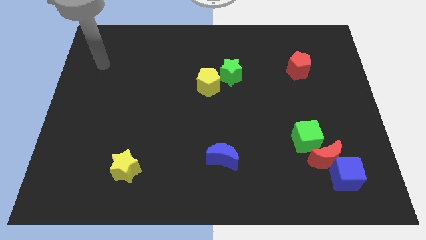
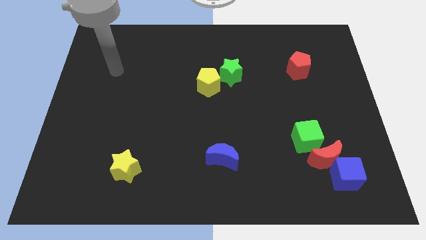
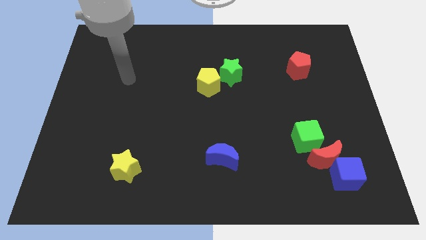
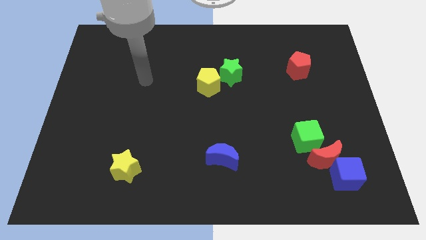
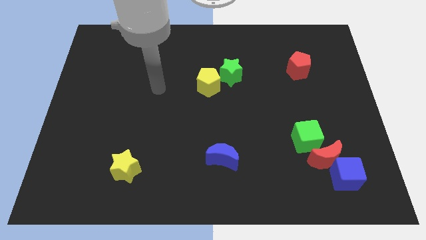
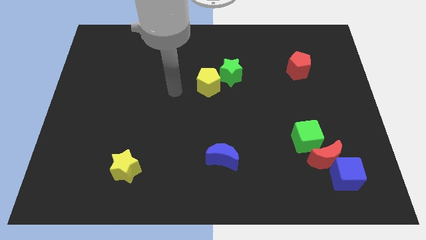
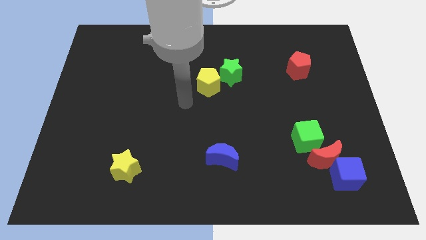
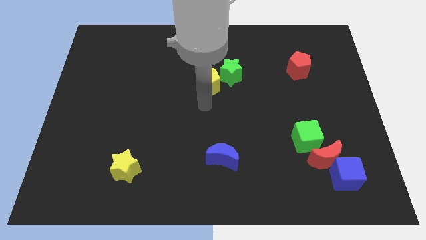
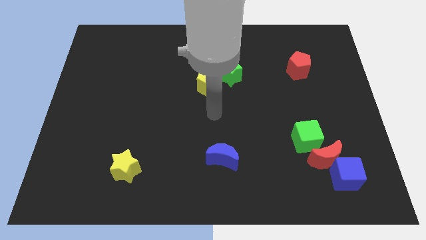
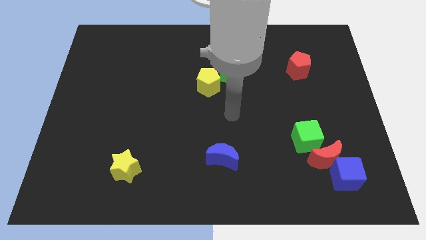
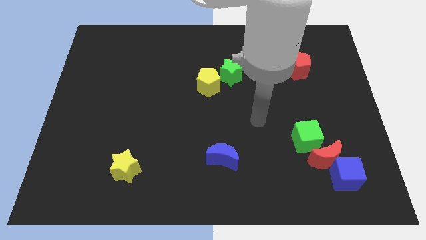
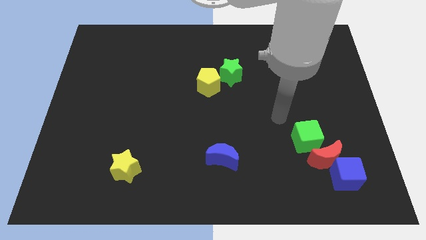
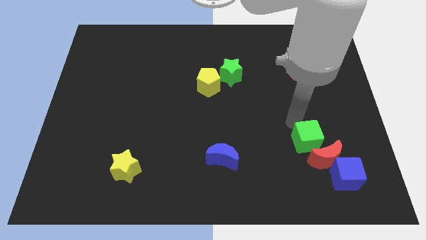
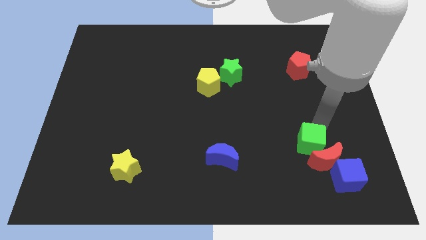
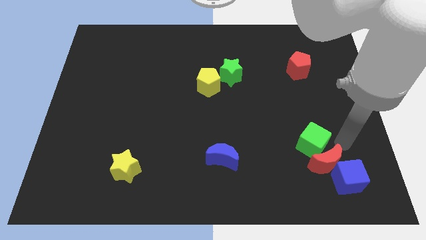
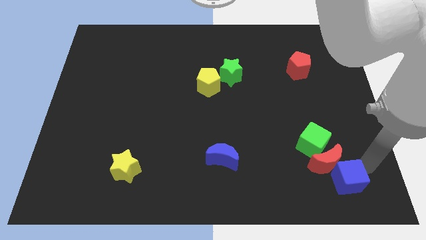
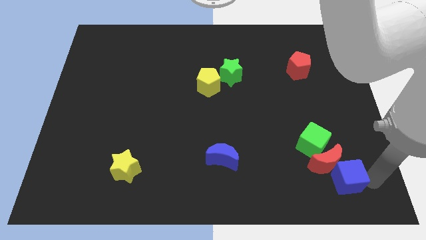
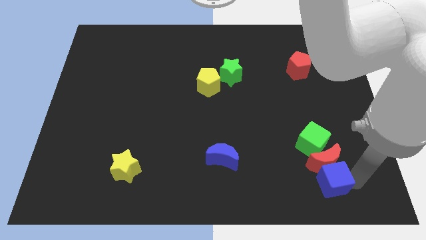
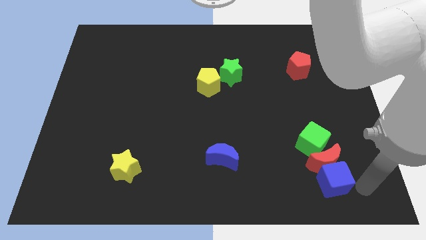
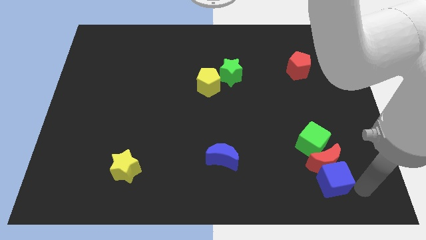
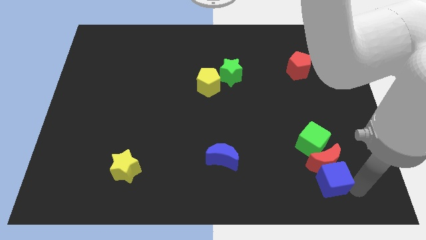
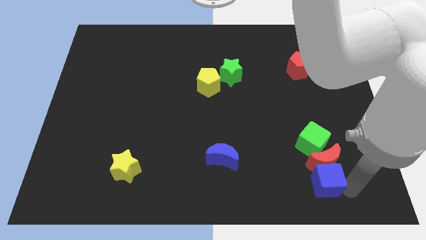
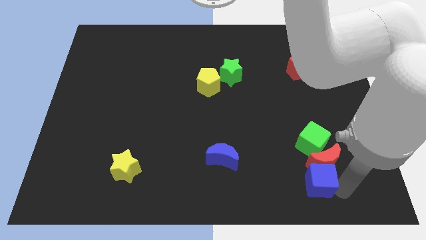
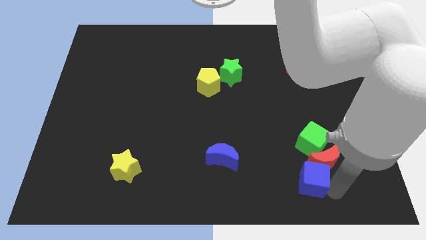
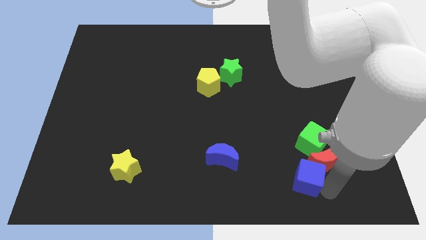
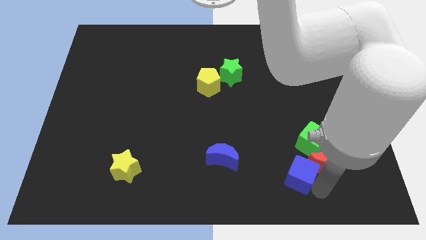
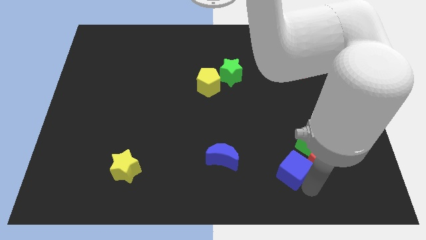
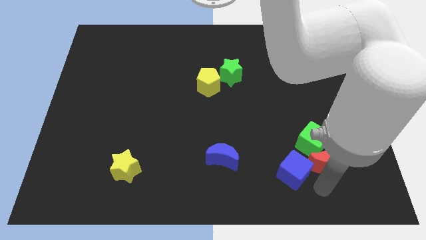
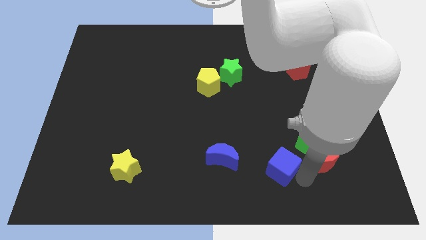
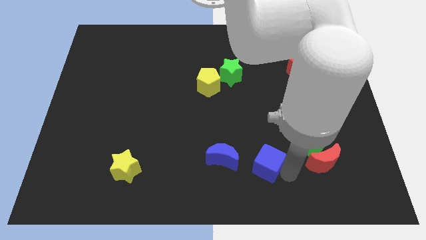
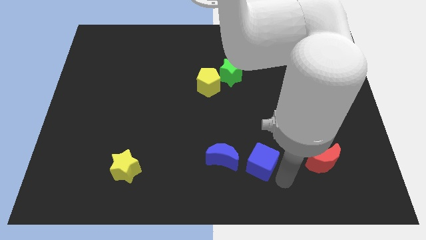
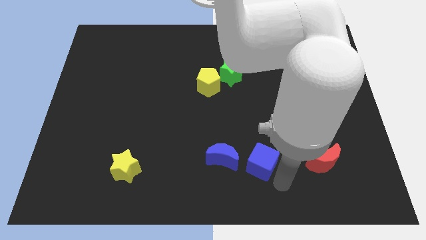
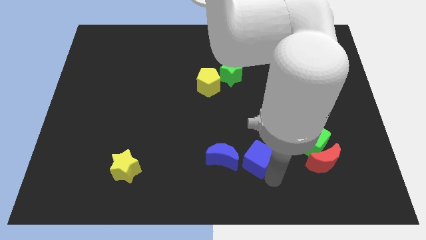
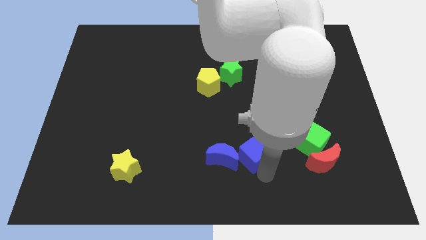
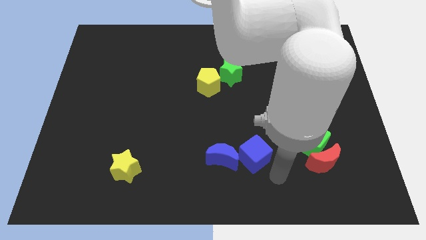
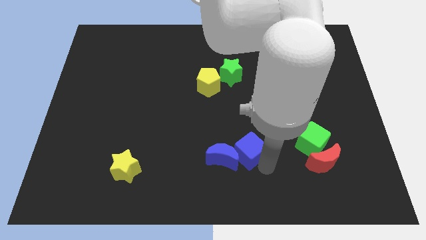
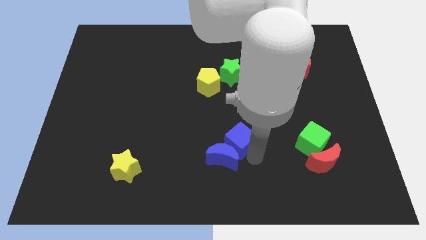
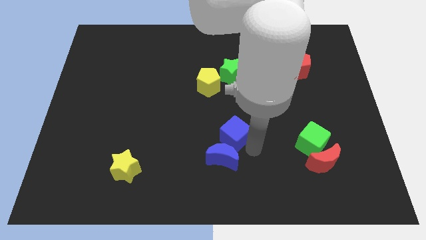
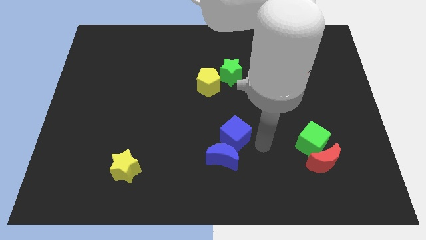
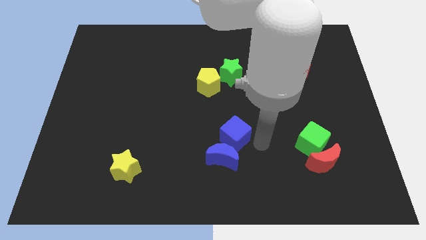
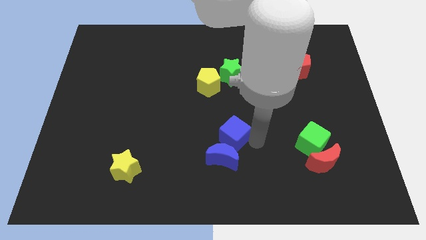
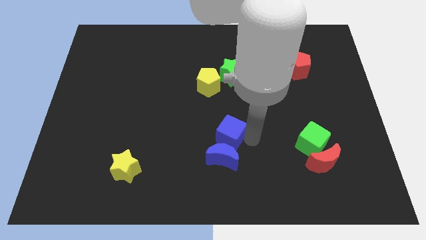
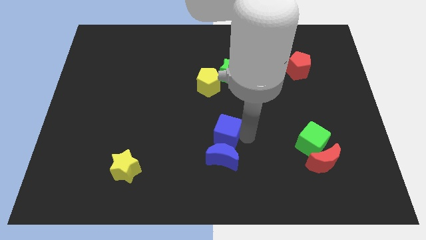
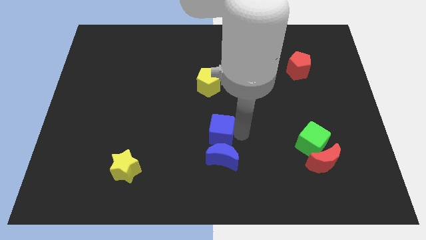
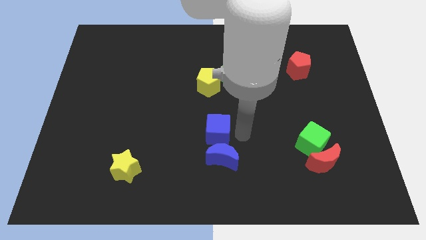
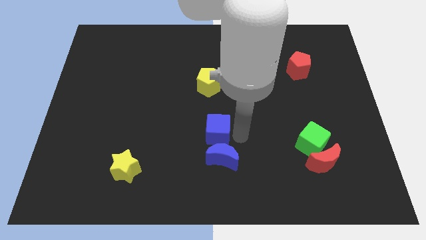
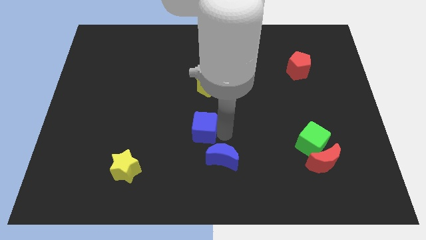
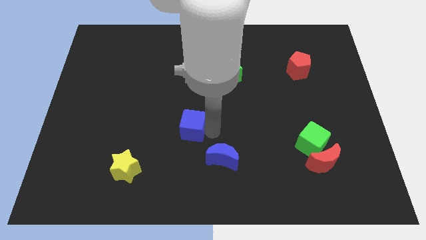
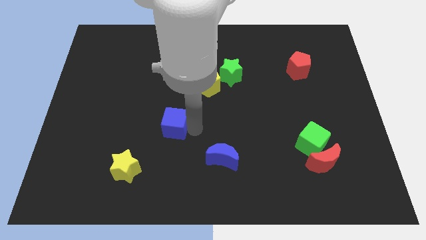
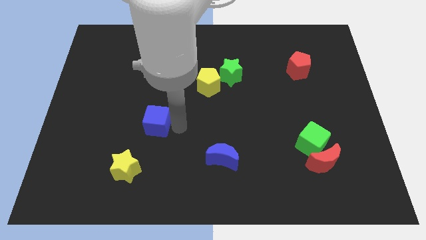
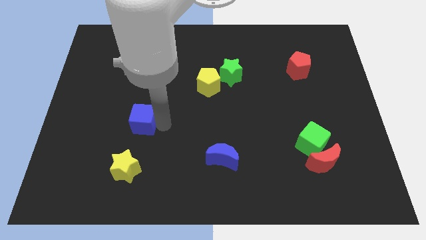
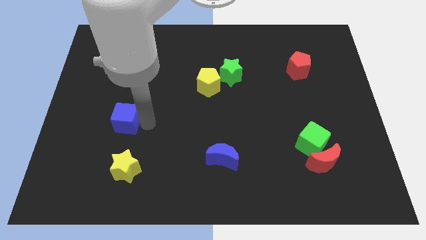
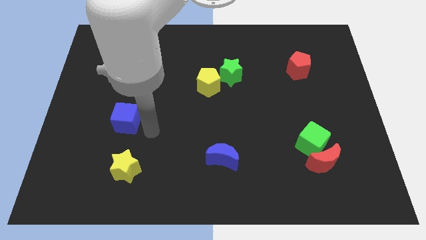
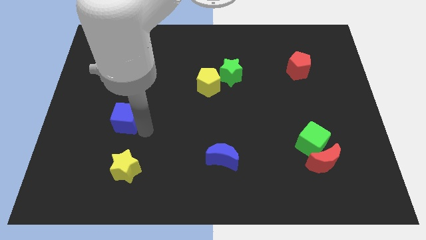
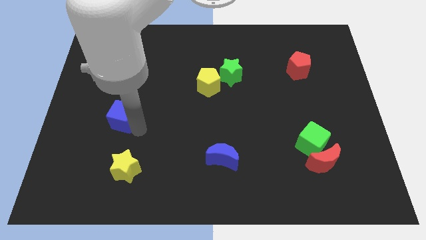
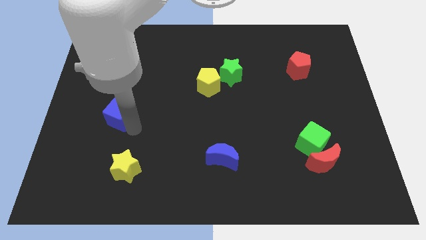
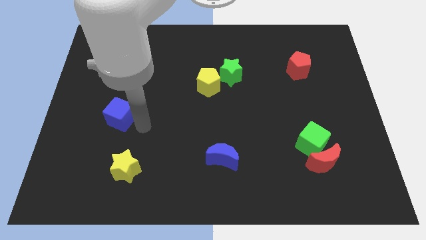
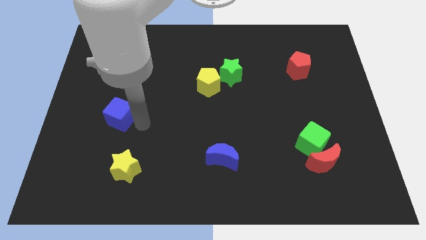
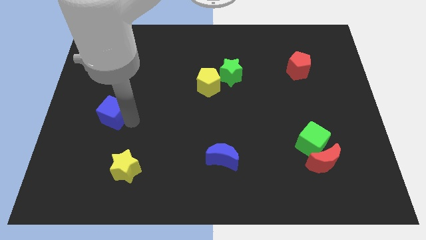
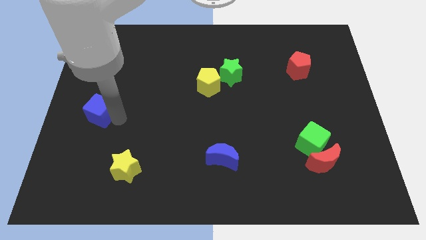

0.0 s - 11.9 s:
put the blue cube to the left side of the board
